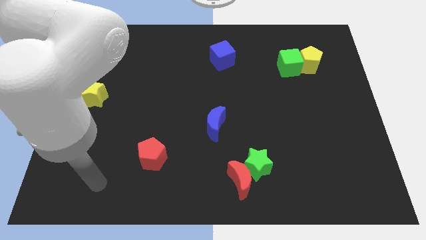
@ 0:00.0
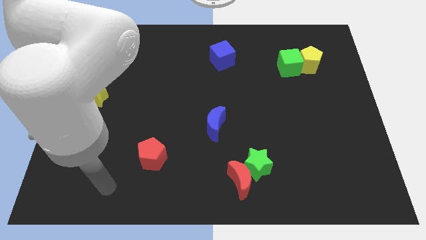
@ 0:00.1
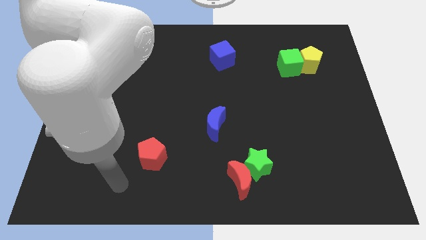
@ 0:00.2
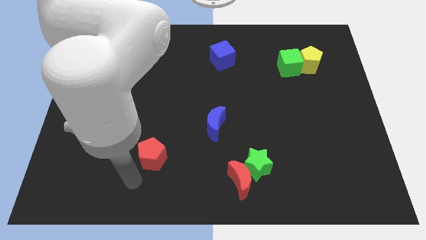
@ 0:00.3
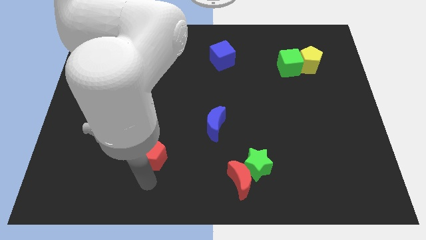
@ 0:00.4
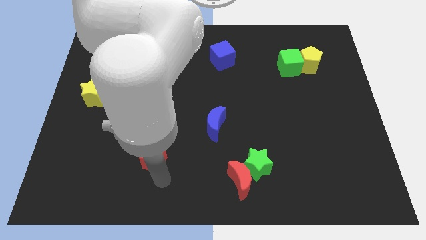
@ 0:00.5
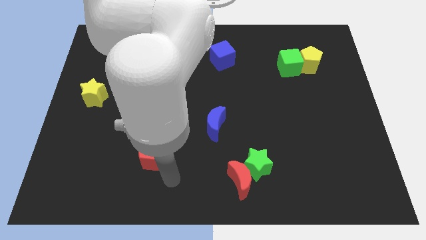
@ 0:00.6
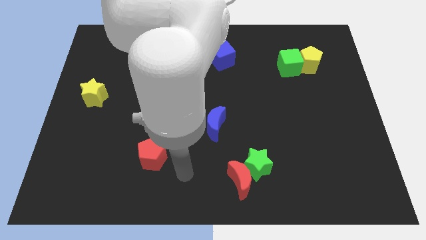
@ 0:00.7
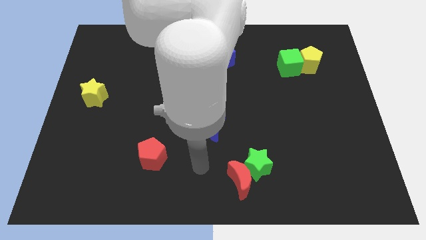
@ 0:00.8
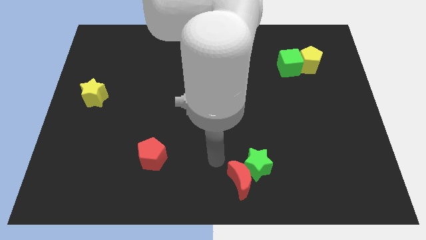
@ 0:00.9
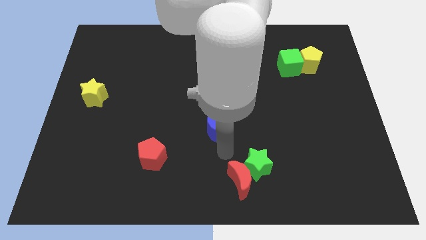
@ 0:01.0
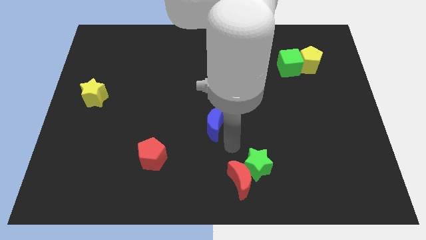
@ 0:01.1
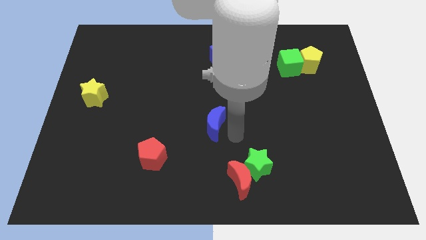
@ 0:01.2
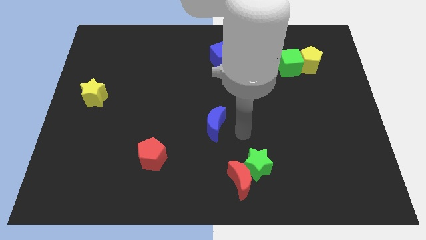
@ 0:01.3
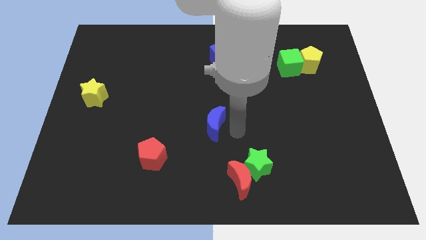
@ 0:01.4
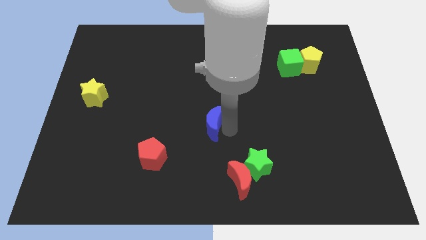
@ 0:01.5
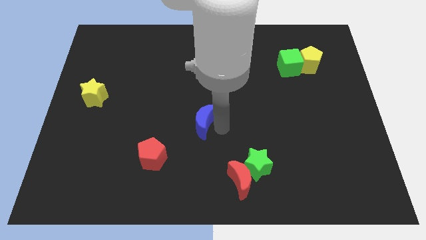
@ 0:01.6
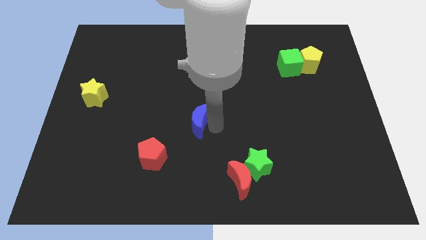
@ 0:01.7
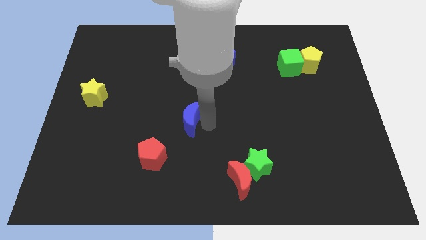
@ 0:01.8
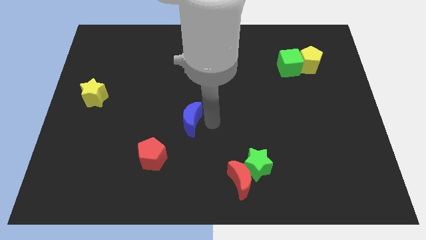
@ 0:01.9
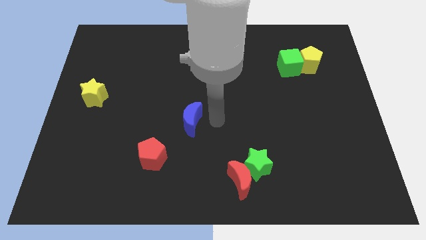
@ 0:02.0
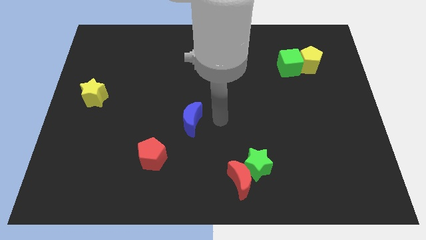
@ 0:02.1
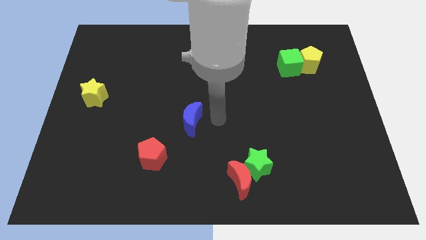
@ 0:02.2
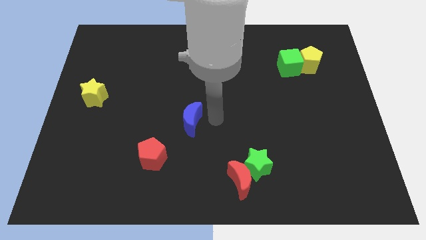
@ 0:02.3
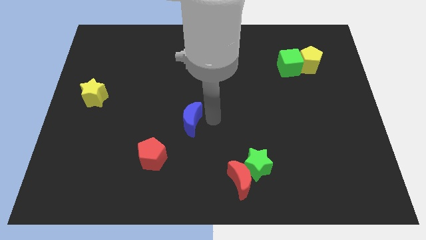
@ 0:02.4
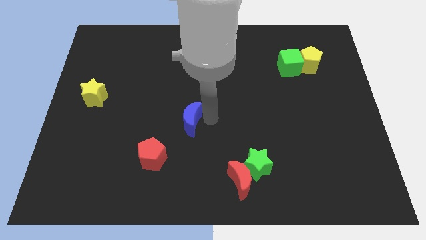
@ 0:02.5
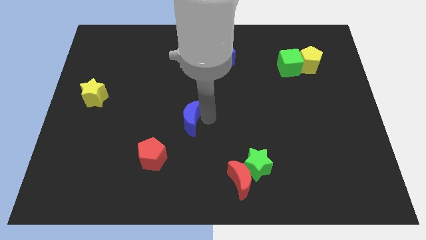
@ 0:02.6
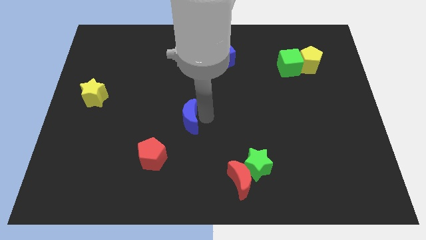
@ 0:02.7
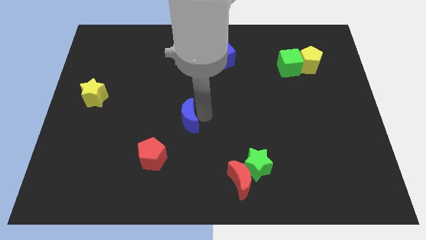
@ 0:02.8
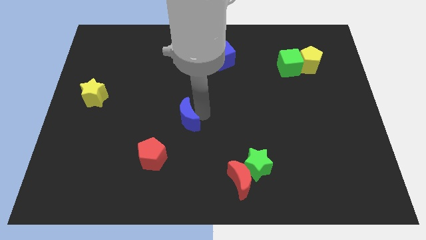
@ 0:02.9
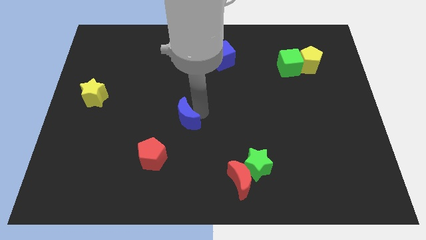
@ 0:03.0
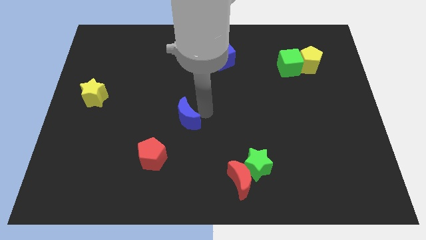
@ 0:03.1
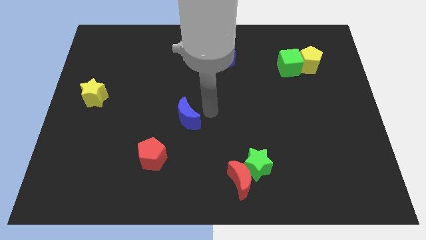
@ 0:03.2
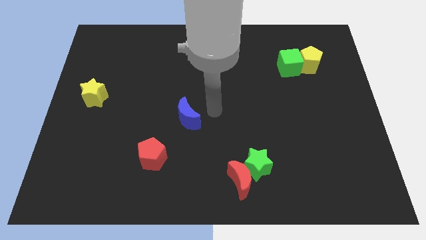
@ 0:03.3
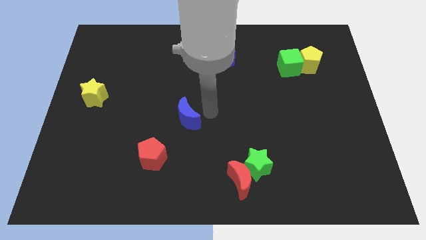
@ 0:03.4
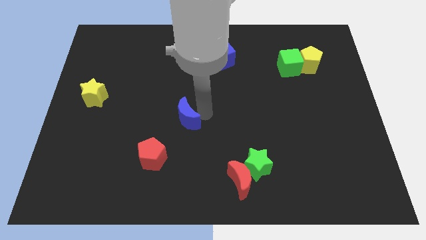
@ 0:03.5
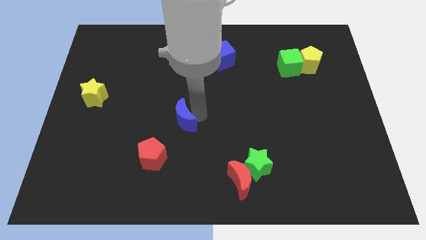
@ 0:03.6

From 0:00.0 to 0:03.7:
slightly move the blue moon left

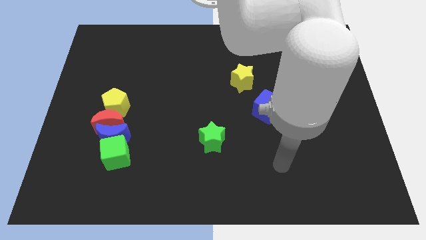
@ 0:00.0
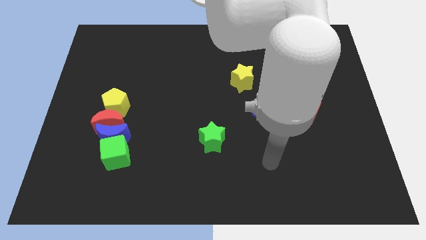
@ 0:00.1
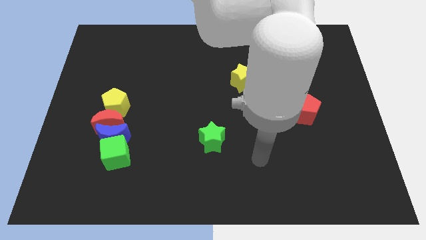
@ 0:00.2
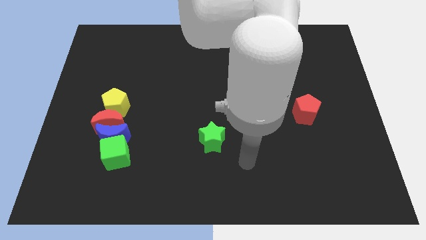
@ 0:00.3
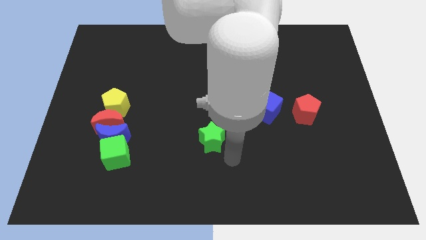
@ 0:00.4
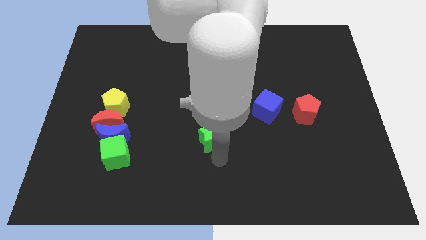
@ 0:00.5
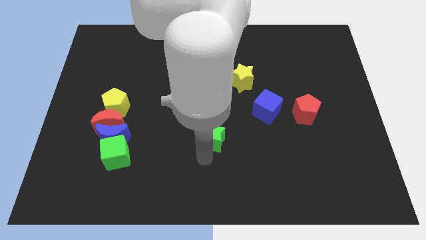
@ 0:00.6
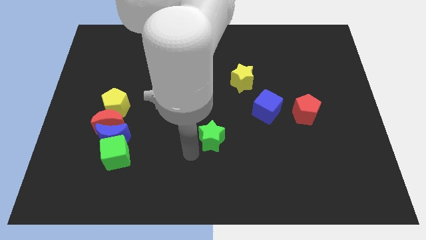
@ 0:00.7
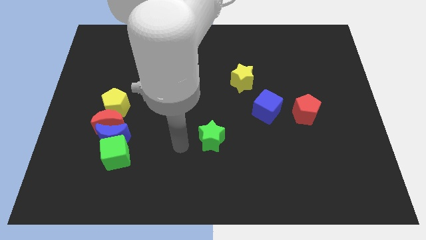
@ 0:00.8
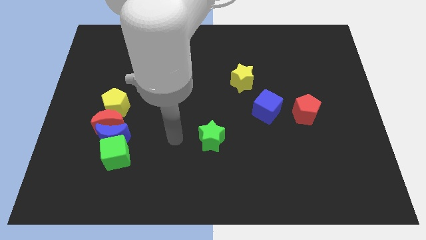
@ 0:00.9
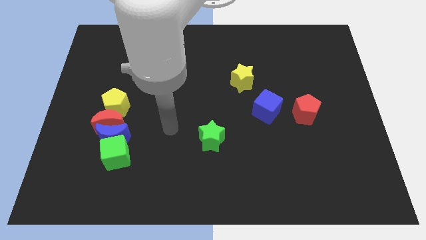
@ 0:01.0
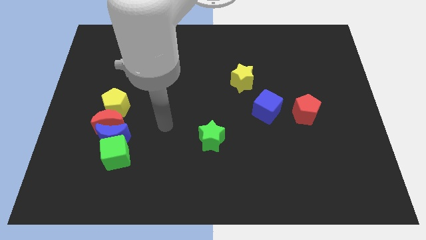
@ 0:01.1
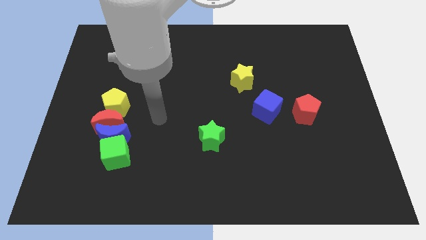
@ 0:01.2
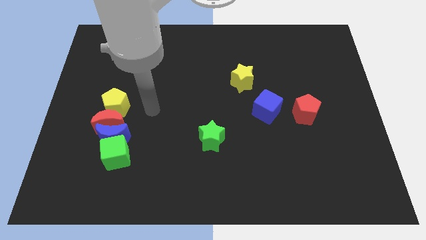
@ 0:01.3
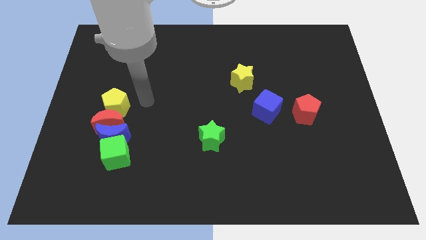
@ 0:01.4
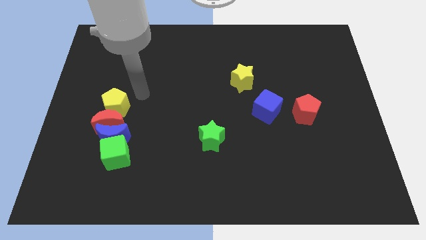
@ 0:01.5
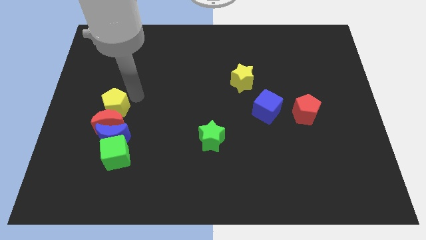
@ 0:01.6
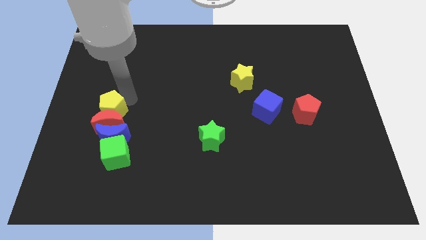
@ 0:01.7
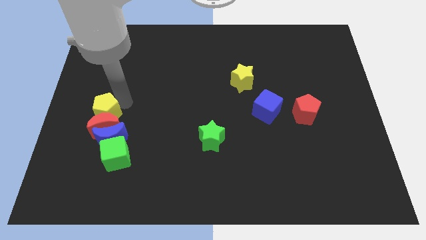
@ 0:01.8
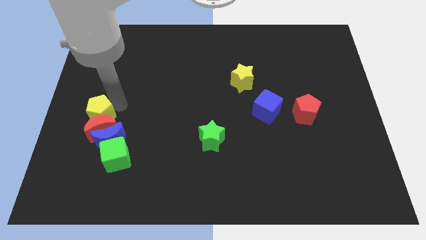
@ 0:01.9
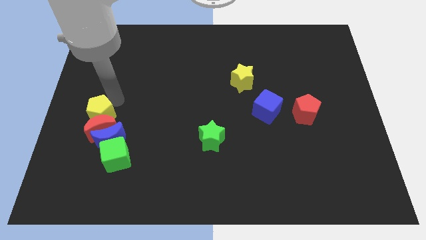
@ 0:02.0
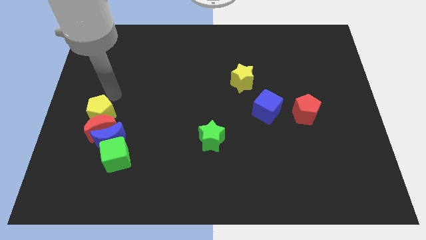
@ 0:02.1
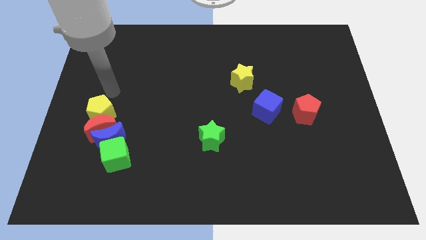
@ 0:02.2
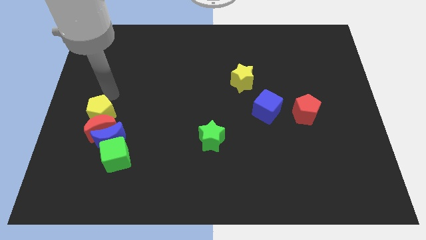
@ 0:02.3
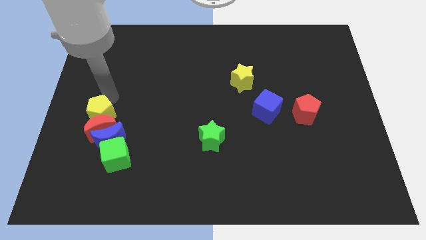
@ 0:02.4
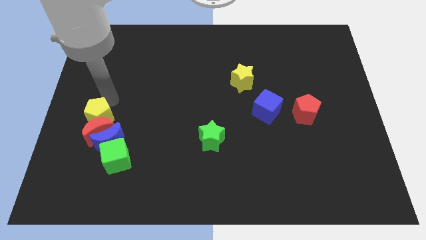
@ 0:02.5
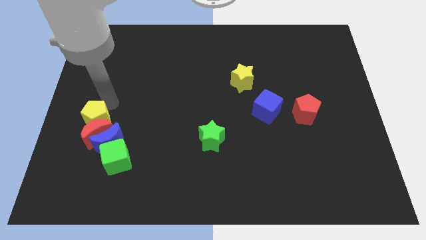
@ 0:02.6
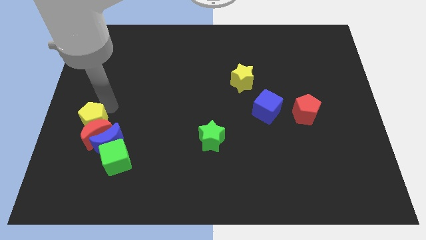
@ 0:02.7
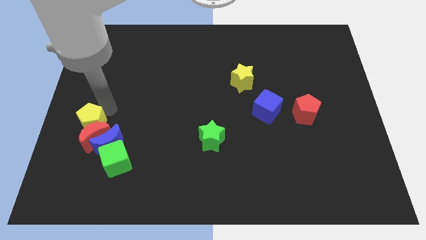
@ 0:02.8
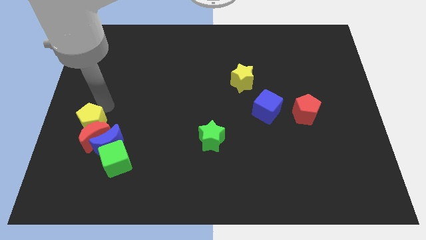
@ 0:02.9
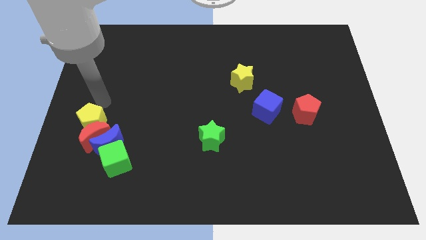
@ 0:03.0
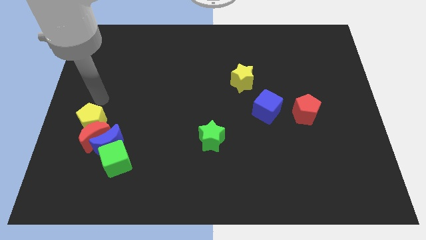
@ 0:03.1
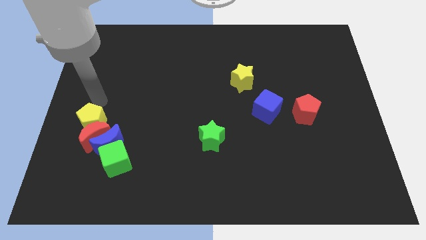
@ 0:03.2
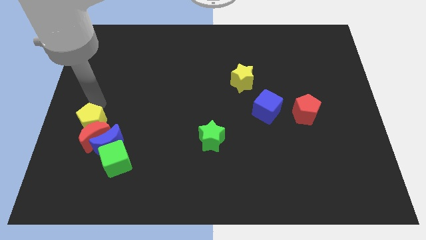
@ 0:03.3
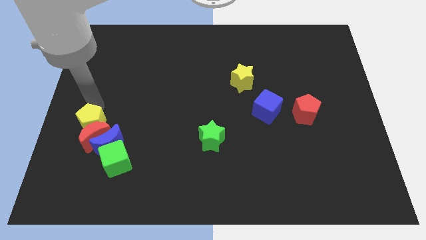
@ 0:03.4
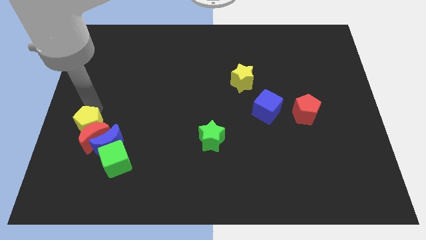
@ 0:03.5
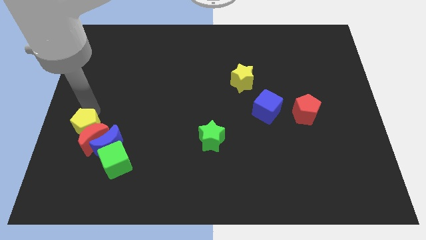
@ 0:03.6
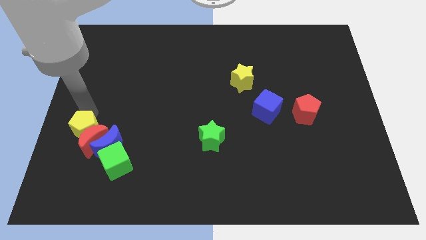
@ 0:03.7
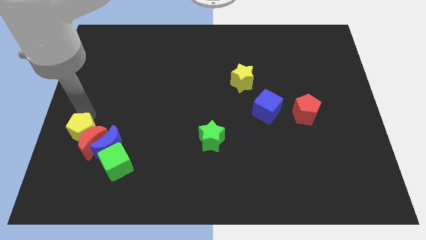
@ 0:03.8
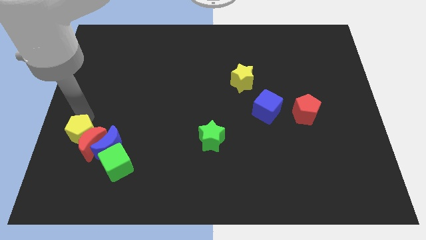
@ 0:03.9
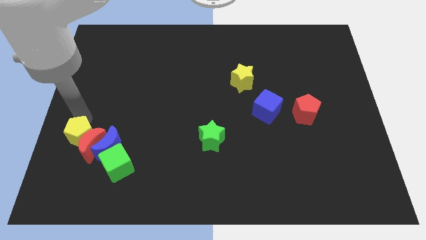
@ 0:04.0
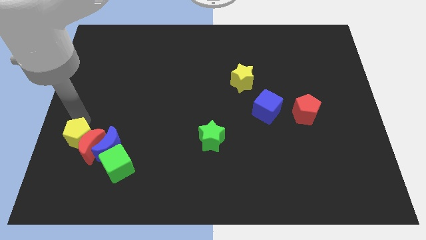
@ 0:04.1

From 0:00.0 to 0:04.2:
push the yellow pentagon a little bit down

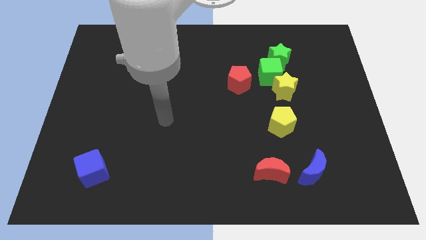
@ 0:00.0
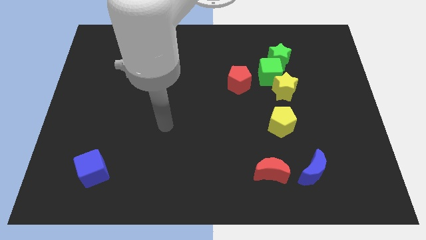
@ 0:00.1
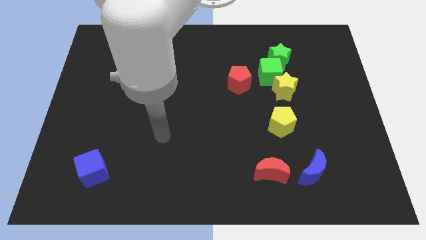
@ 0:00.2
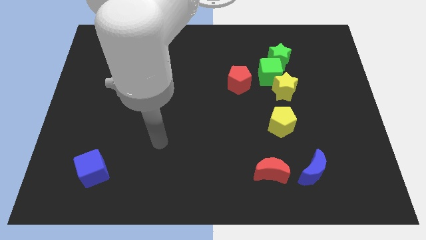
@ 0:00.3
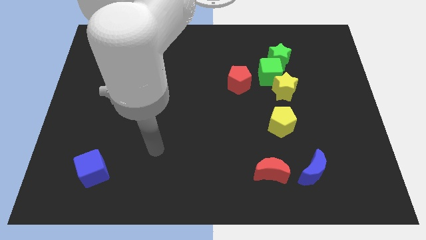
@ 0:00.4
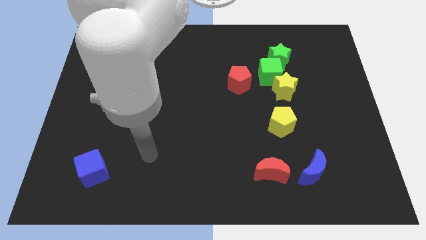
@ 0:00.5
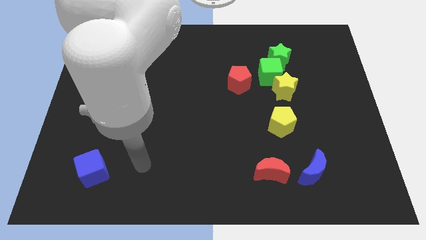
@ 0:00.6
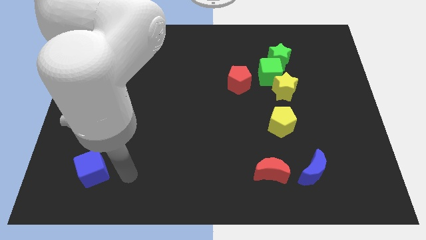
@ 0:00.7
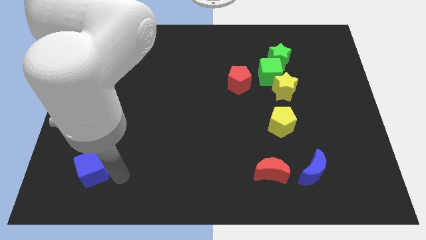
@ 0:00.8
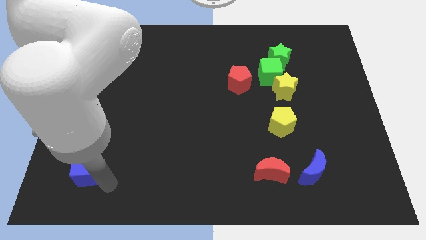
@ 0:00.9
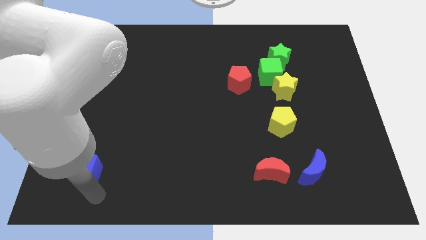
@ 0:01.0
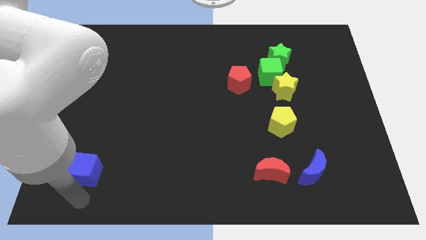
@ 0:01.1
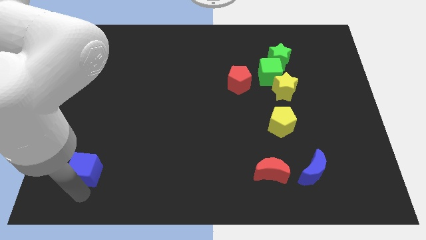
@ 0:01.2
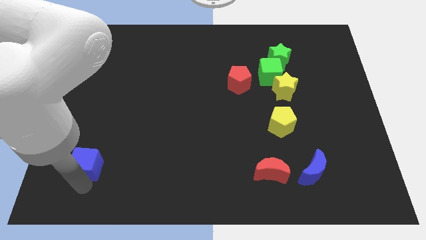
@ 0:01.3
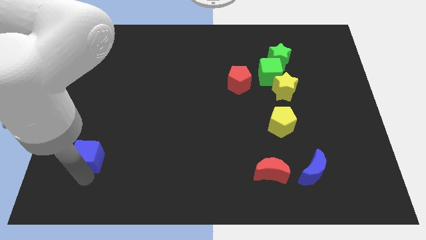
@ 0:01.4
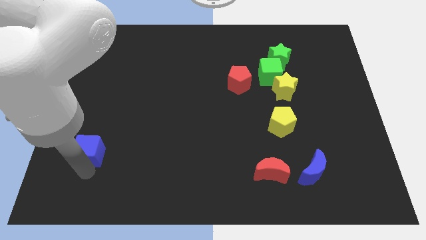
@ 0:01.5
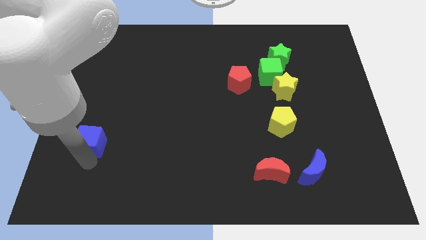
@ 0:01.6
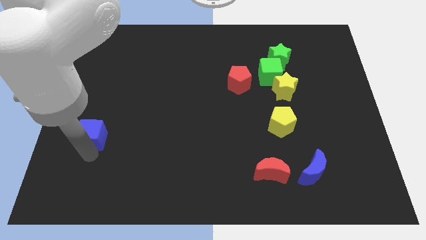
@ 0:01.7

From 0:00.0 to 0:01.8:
move the blue cube somewhat up
